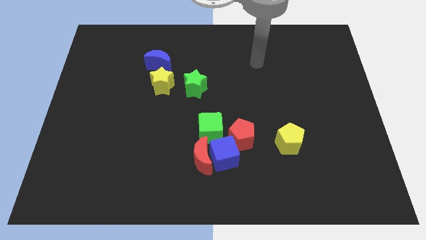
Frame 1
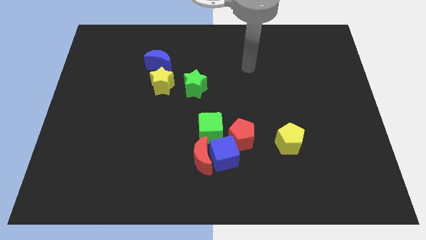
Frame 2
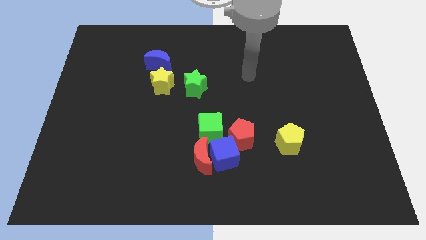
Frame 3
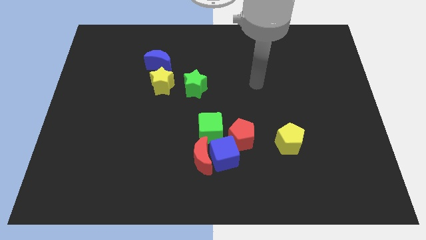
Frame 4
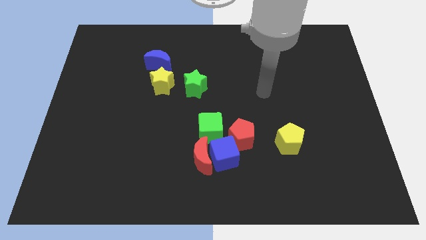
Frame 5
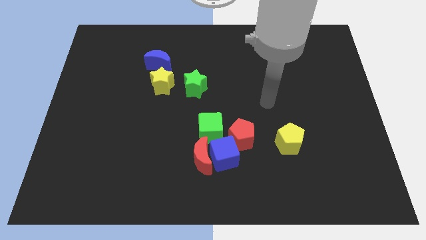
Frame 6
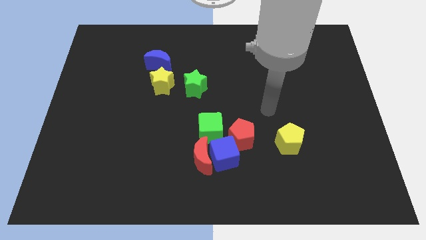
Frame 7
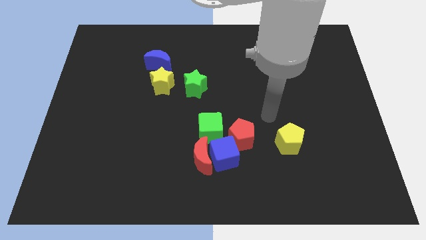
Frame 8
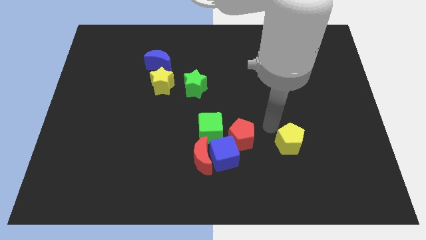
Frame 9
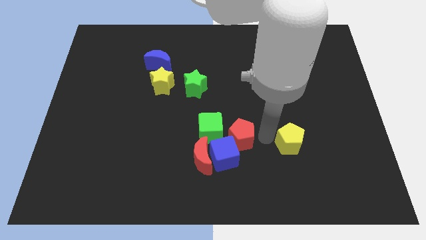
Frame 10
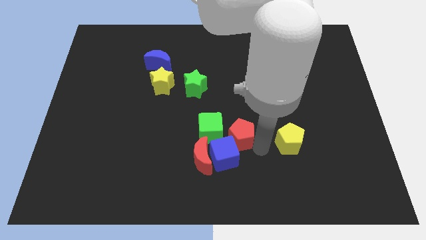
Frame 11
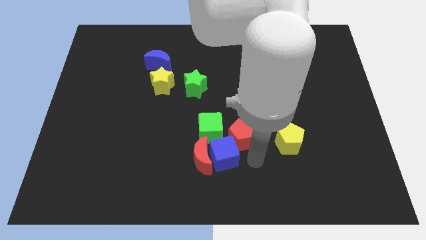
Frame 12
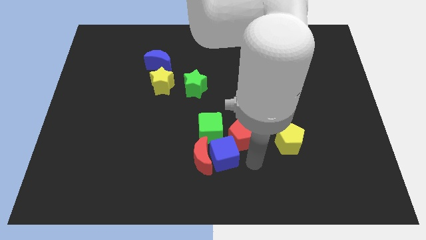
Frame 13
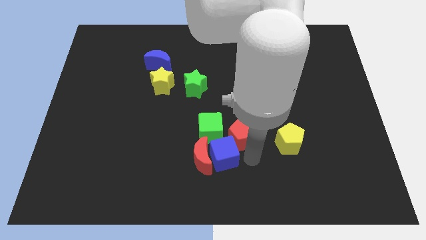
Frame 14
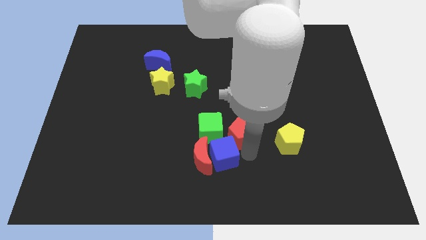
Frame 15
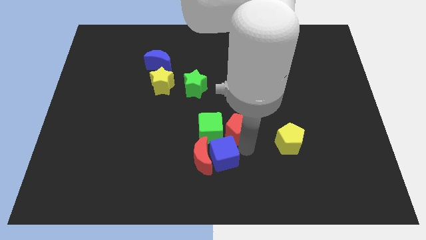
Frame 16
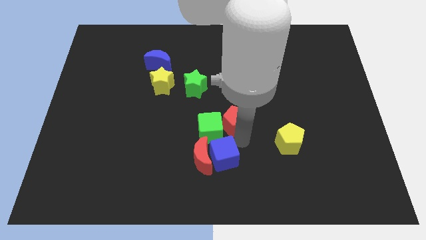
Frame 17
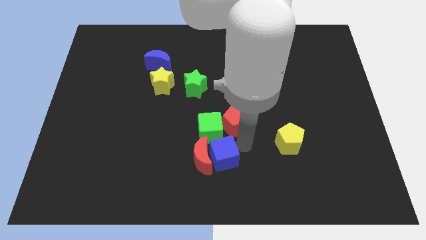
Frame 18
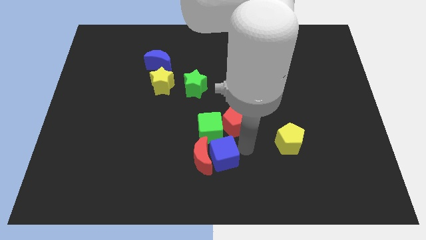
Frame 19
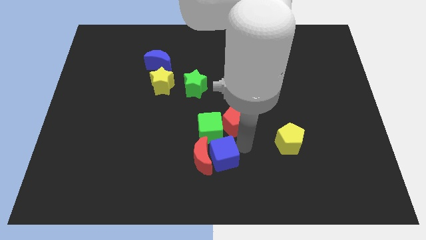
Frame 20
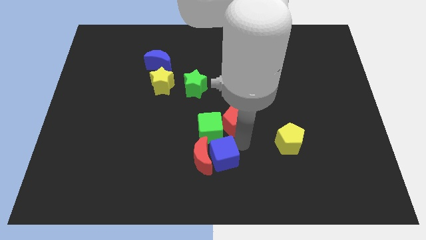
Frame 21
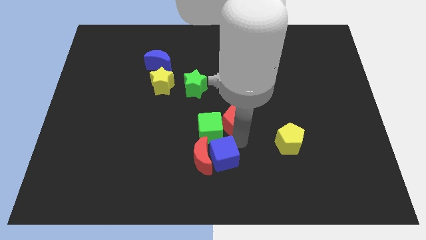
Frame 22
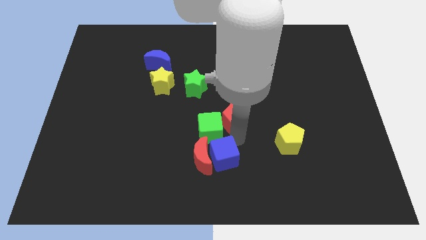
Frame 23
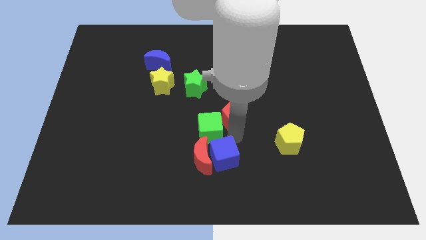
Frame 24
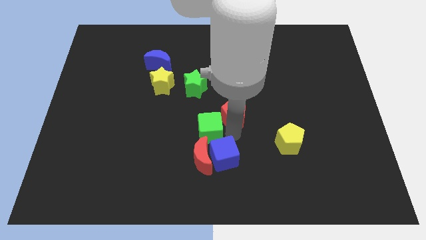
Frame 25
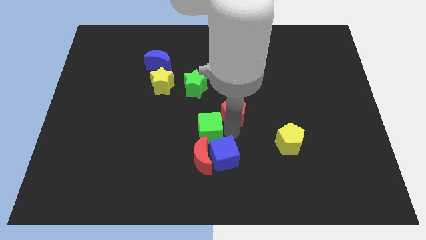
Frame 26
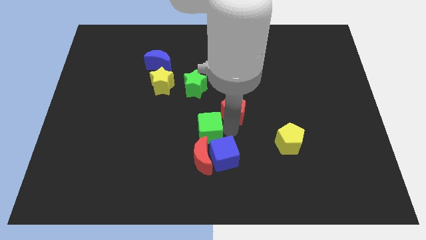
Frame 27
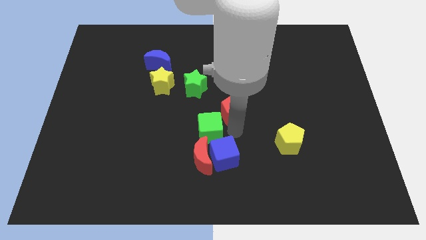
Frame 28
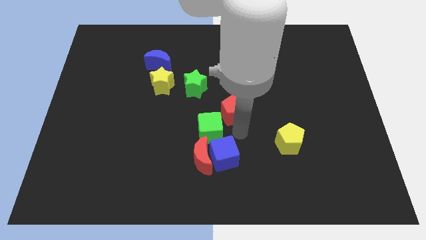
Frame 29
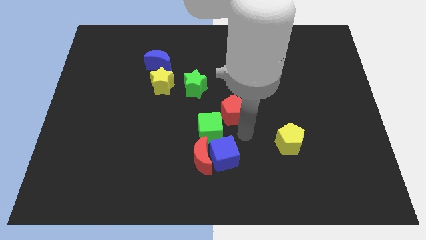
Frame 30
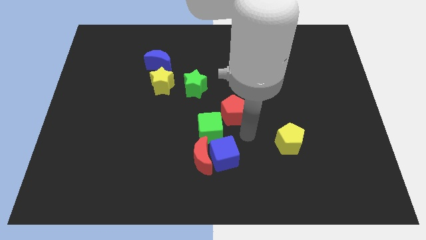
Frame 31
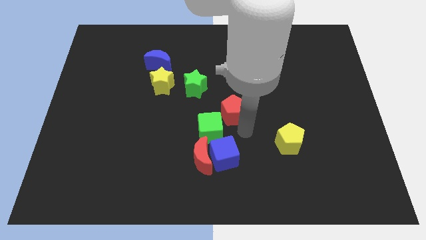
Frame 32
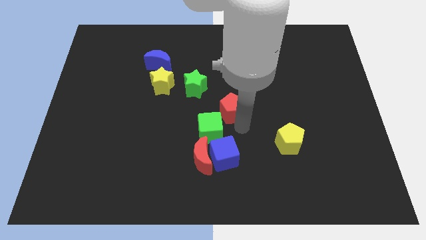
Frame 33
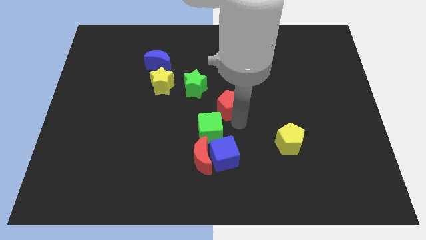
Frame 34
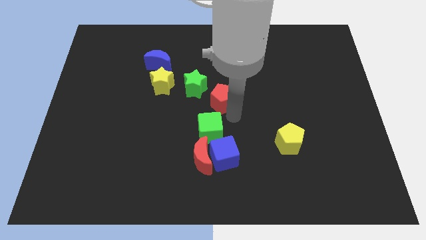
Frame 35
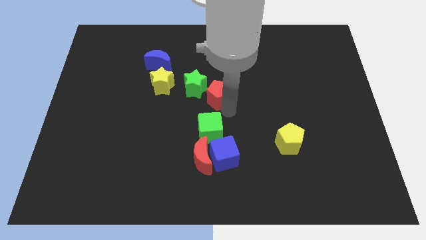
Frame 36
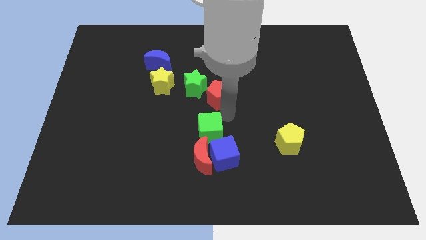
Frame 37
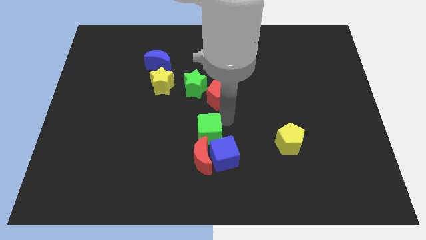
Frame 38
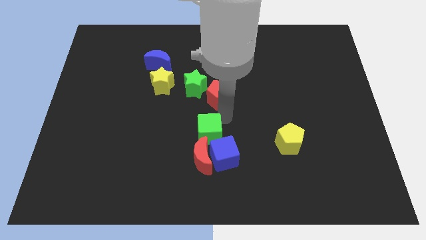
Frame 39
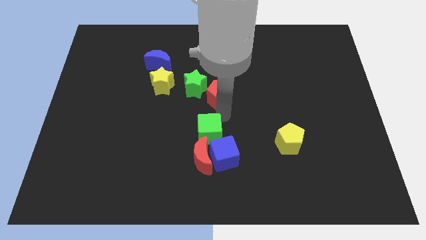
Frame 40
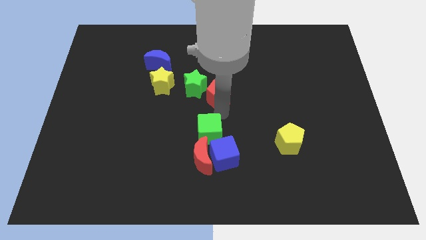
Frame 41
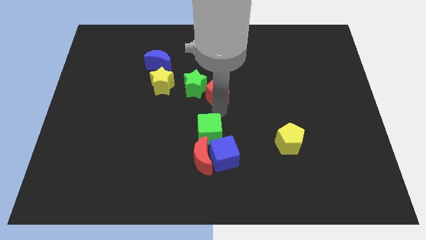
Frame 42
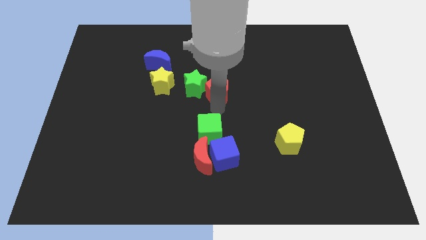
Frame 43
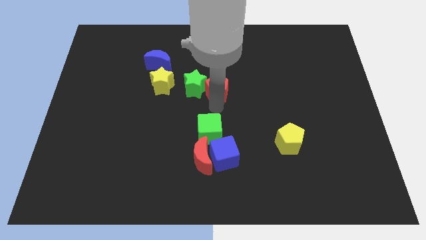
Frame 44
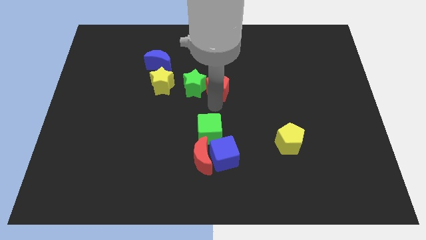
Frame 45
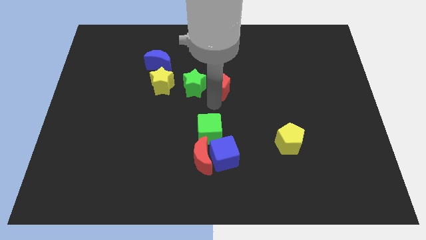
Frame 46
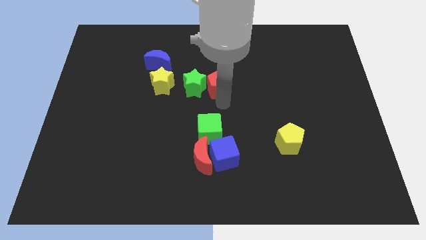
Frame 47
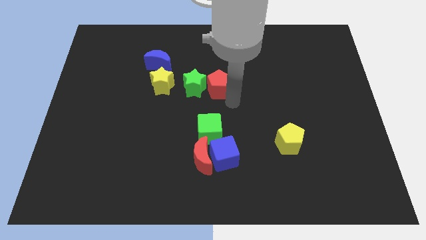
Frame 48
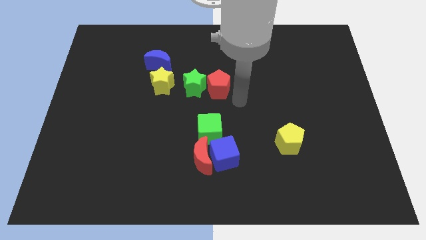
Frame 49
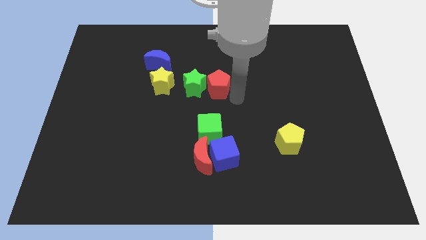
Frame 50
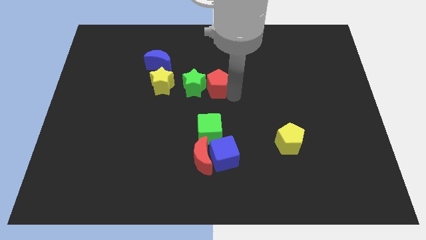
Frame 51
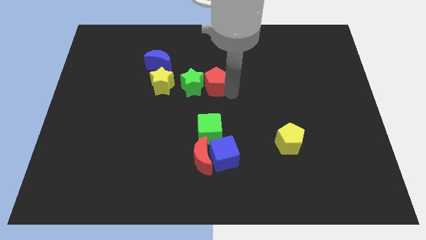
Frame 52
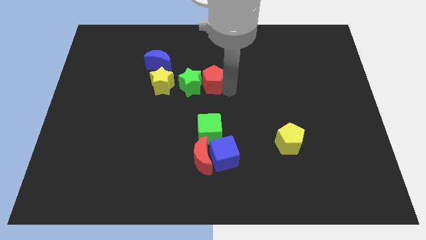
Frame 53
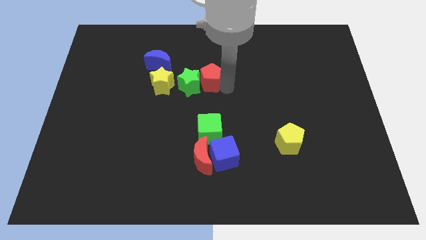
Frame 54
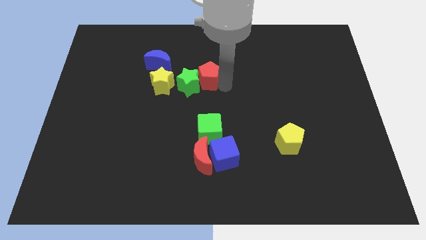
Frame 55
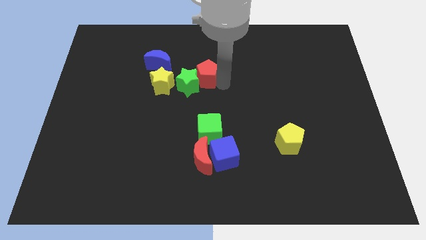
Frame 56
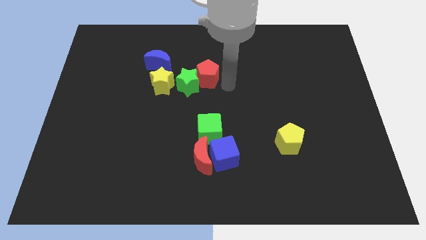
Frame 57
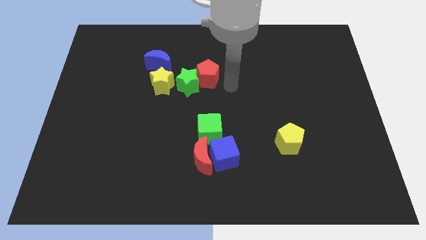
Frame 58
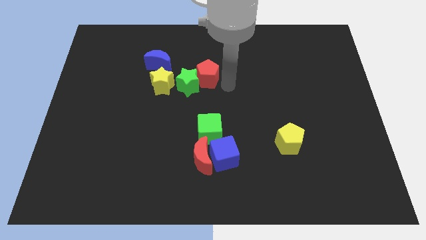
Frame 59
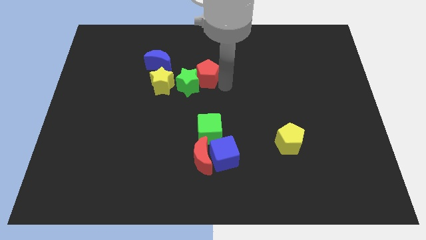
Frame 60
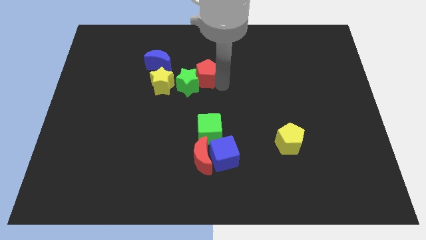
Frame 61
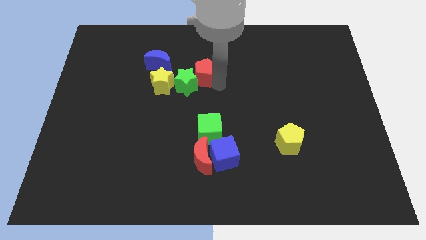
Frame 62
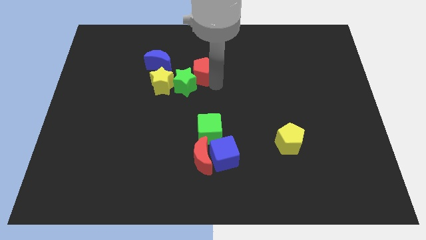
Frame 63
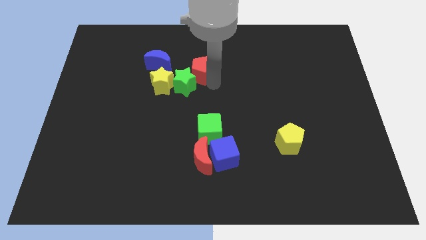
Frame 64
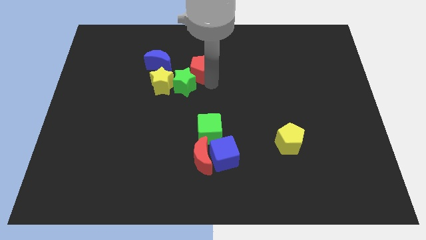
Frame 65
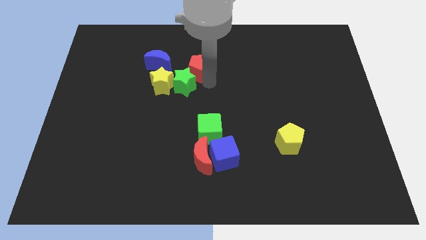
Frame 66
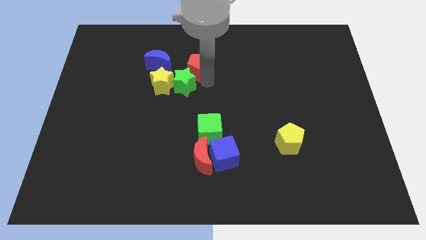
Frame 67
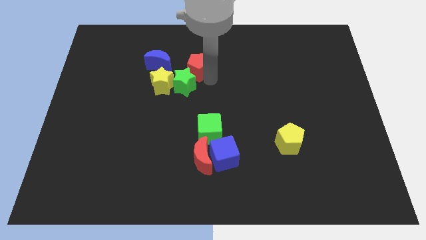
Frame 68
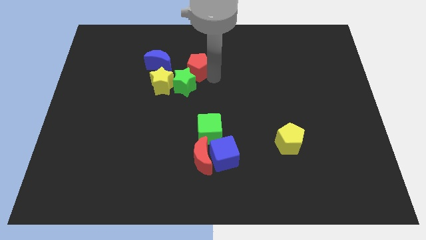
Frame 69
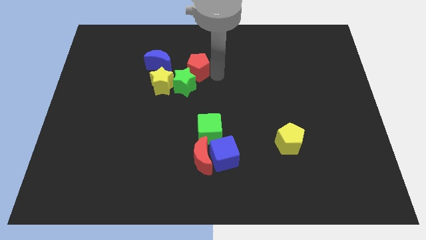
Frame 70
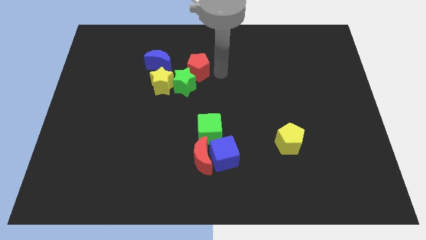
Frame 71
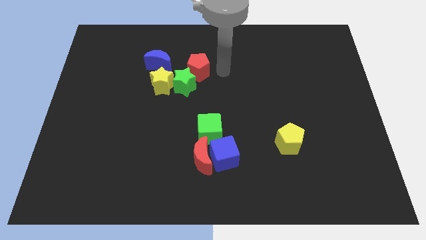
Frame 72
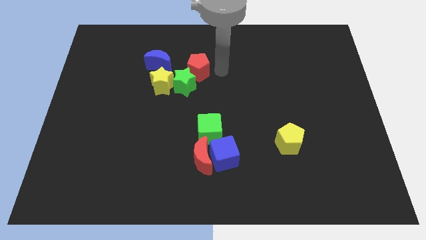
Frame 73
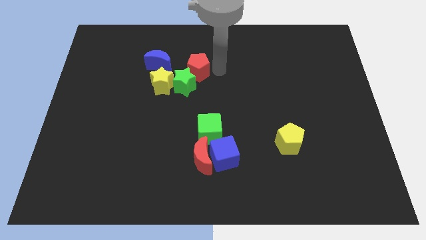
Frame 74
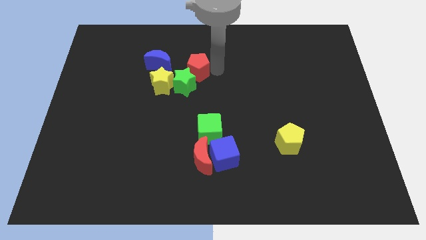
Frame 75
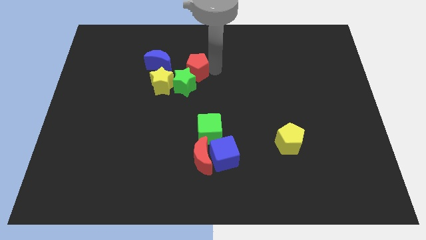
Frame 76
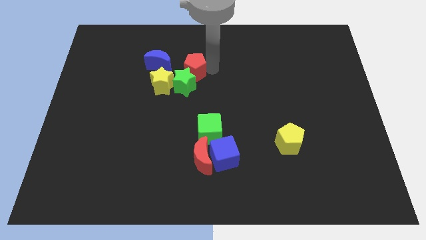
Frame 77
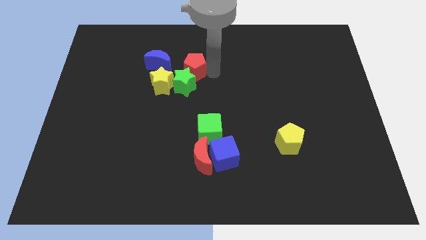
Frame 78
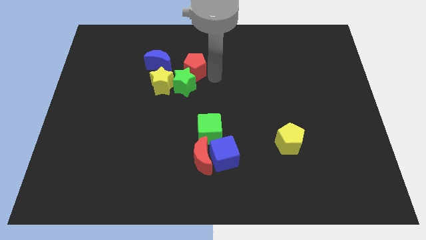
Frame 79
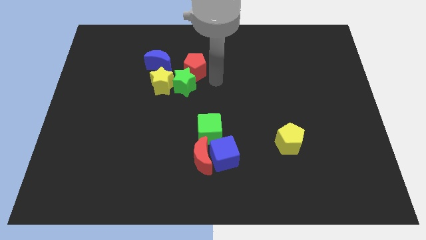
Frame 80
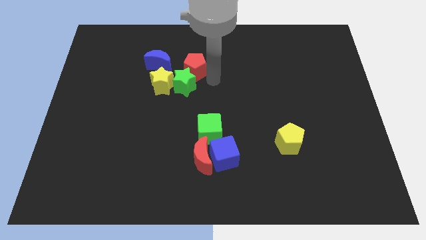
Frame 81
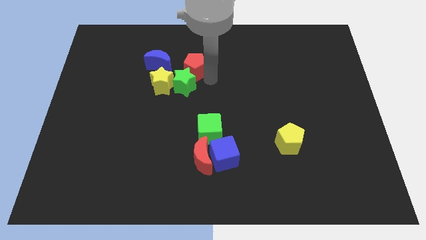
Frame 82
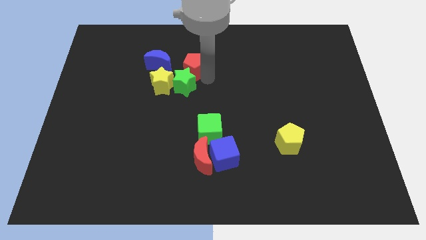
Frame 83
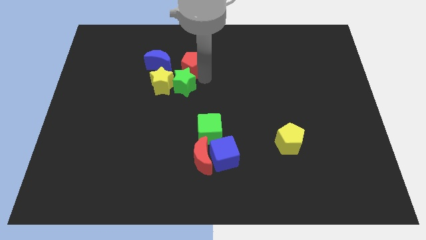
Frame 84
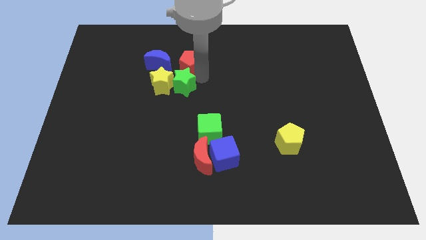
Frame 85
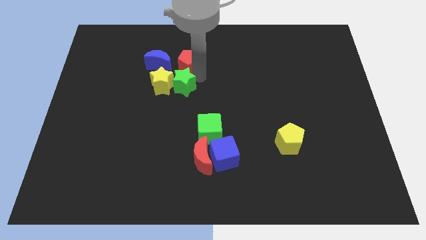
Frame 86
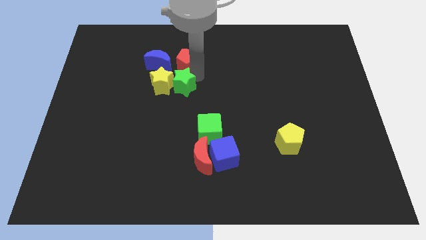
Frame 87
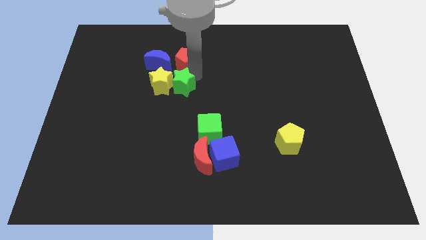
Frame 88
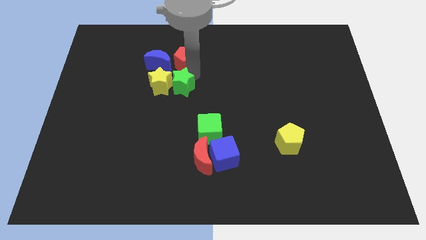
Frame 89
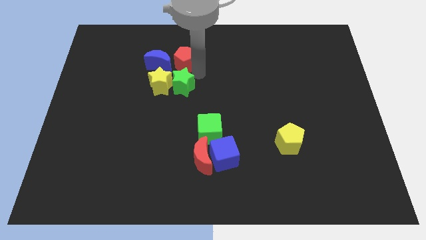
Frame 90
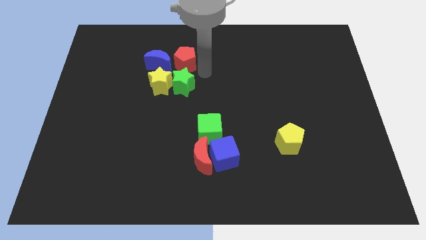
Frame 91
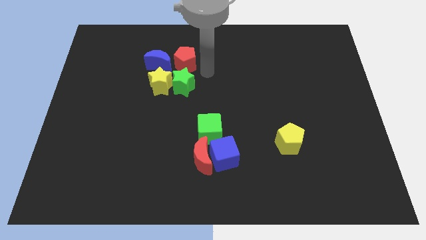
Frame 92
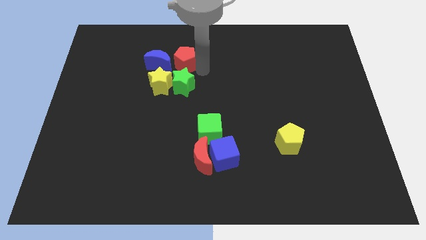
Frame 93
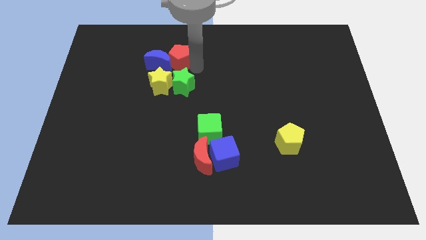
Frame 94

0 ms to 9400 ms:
move the red pentagon above the yellow star
